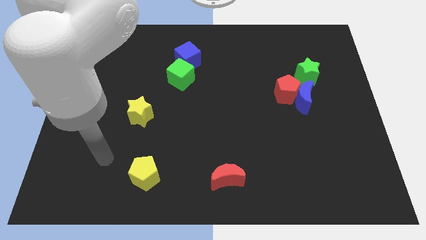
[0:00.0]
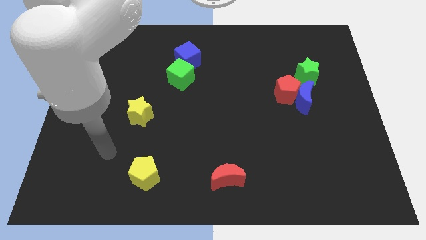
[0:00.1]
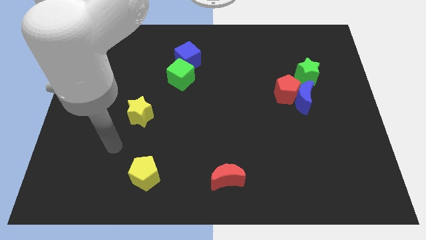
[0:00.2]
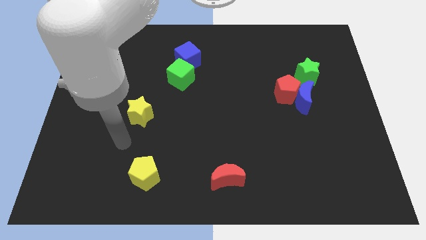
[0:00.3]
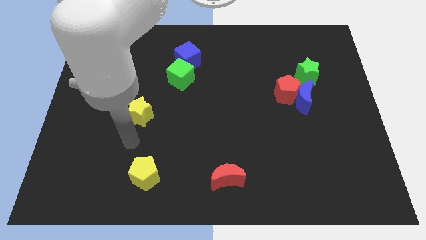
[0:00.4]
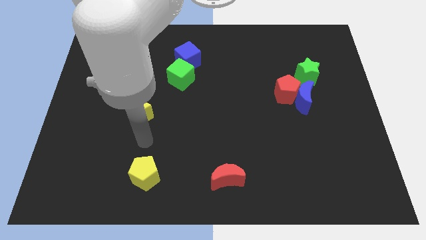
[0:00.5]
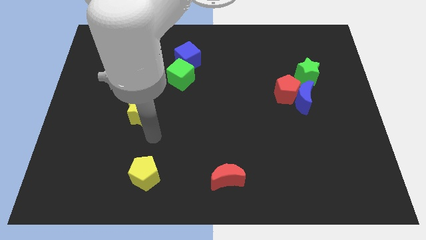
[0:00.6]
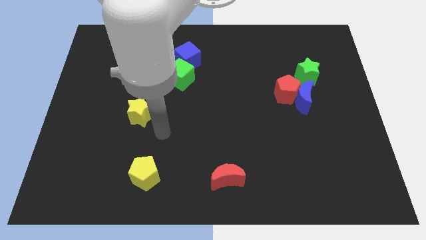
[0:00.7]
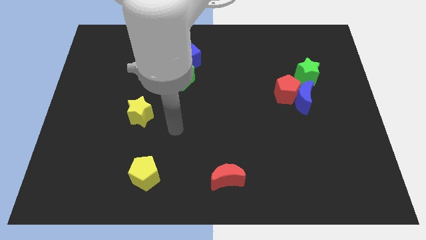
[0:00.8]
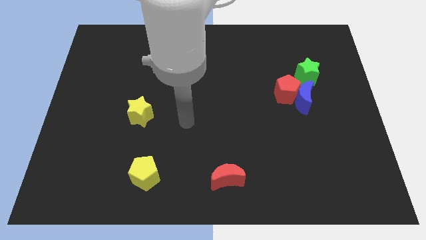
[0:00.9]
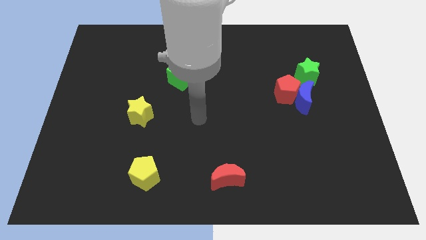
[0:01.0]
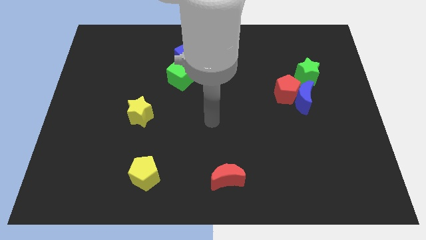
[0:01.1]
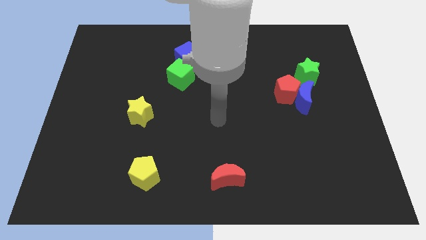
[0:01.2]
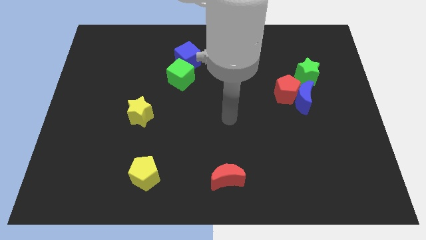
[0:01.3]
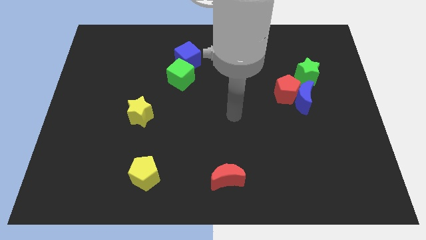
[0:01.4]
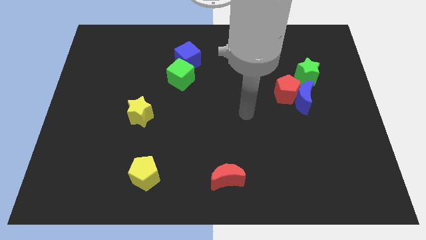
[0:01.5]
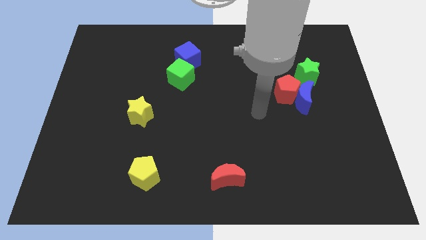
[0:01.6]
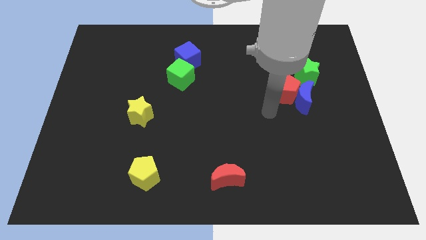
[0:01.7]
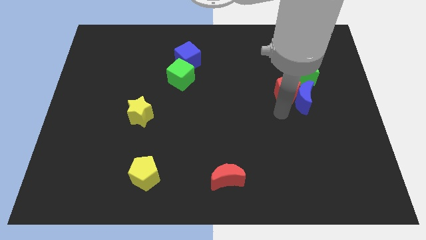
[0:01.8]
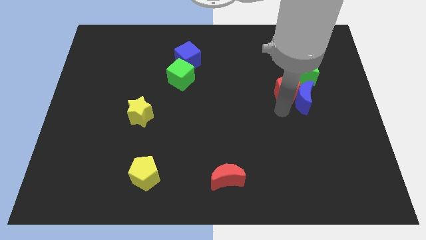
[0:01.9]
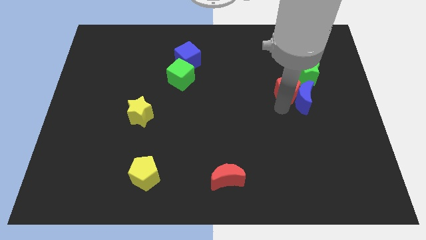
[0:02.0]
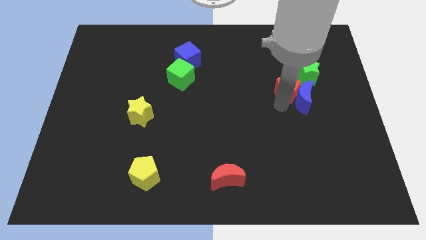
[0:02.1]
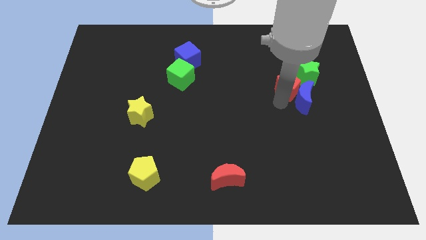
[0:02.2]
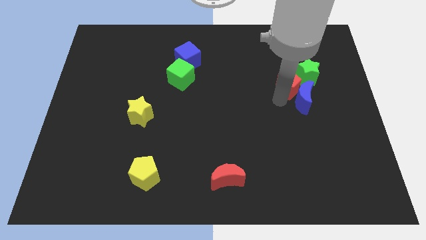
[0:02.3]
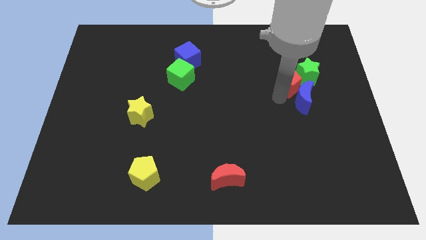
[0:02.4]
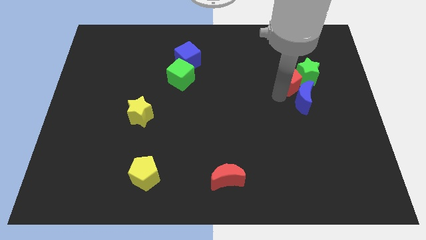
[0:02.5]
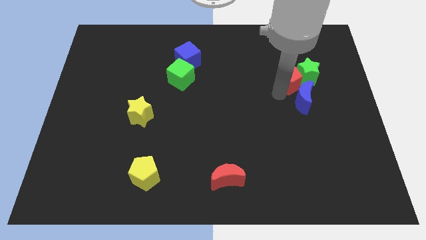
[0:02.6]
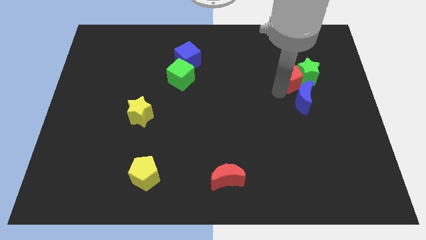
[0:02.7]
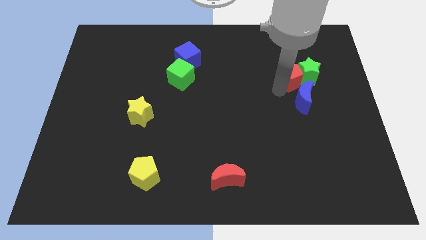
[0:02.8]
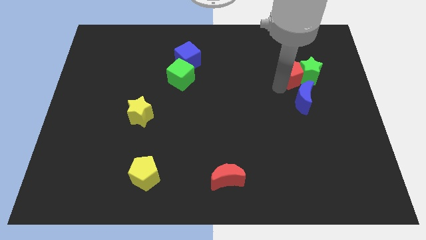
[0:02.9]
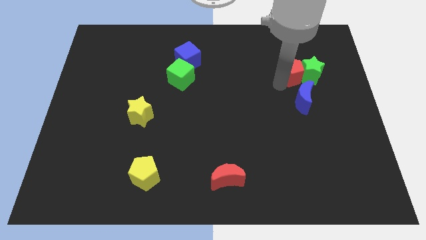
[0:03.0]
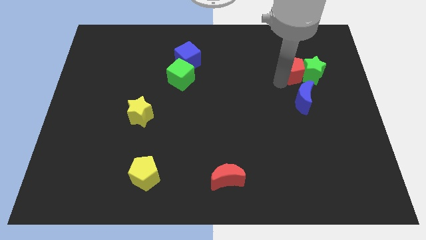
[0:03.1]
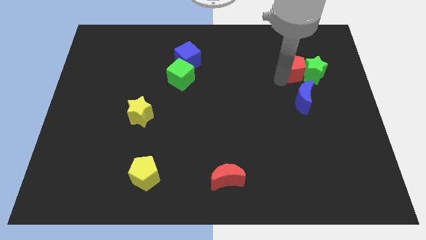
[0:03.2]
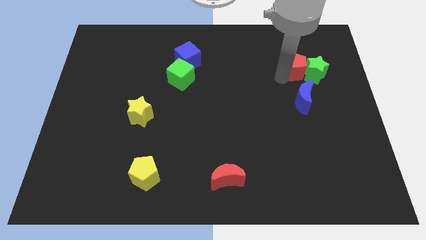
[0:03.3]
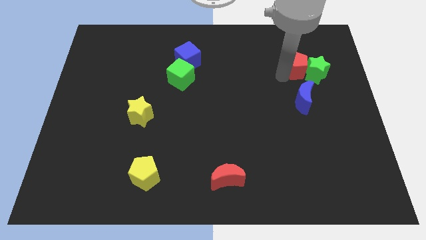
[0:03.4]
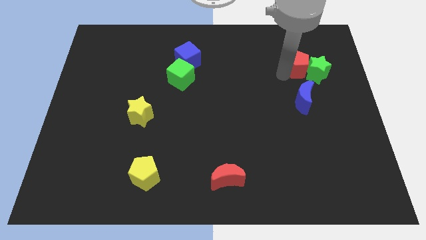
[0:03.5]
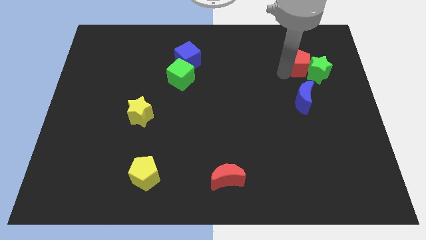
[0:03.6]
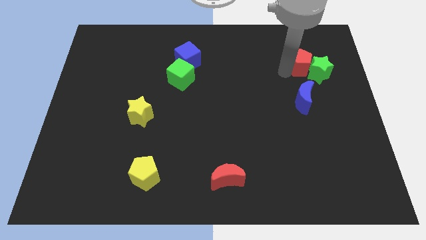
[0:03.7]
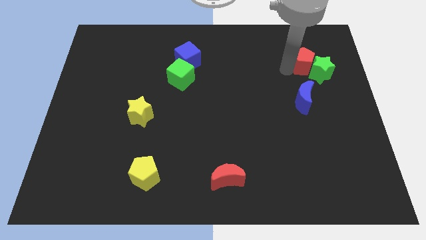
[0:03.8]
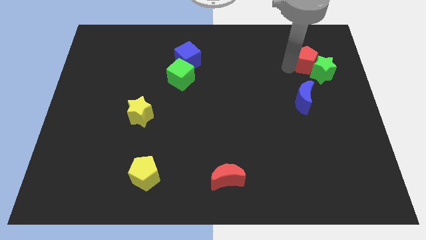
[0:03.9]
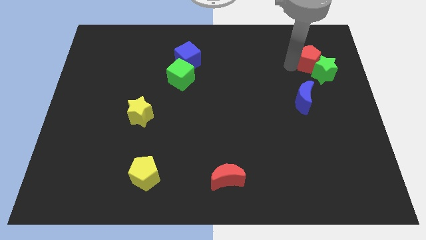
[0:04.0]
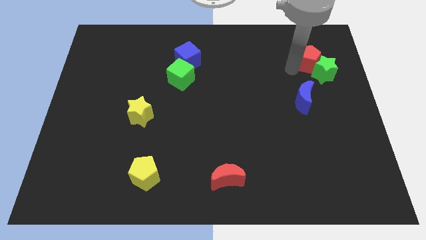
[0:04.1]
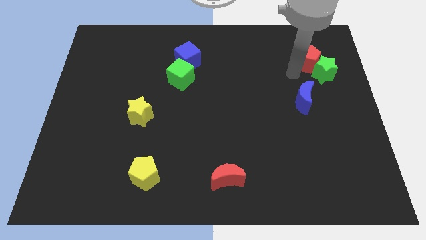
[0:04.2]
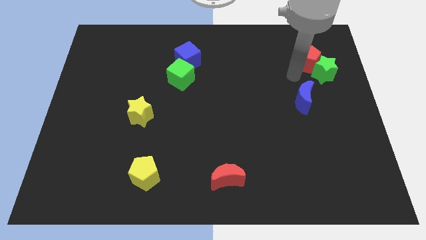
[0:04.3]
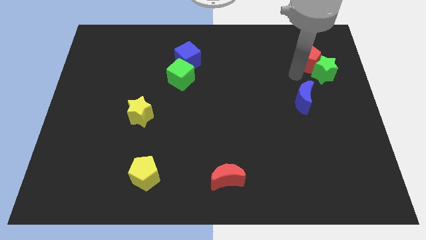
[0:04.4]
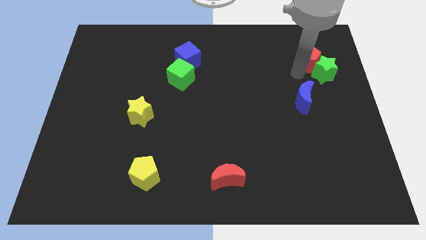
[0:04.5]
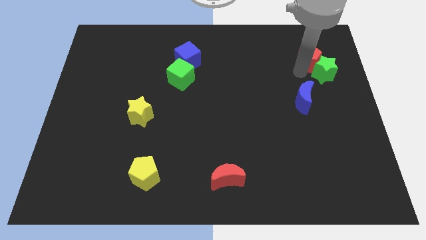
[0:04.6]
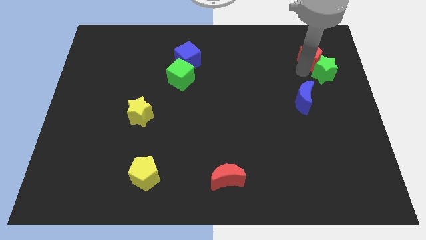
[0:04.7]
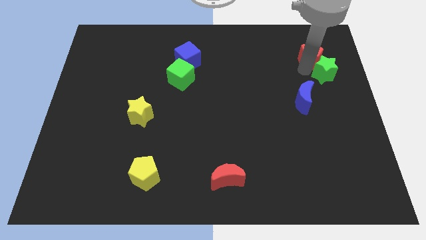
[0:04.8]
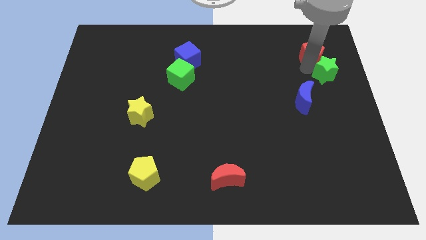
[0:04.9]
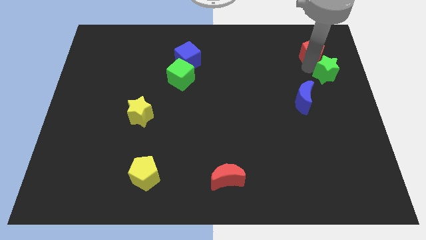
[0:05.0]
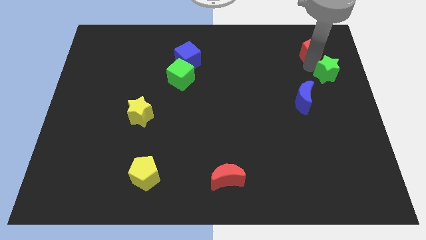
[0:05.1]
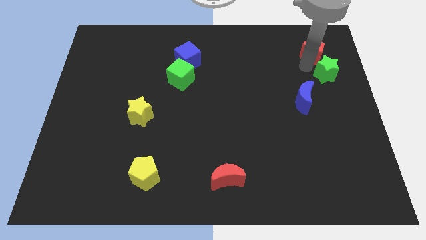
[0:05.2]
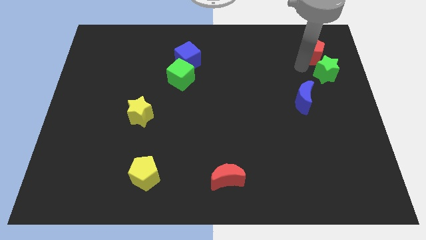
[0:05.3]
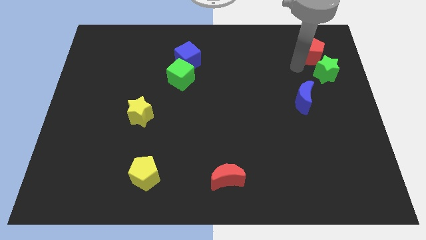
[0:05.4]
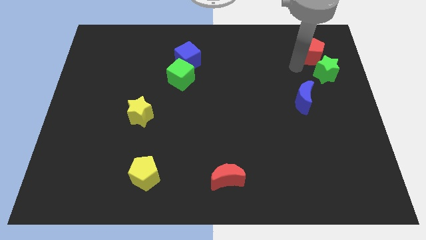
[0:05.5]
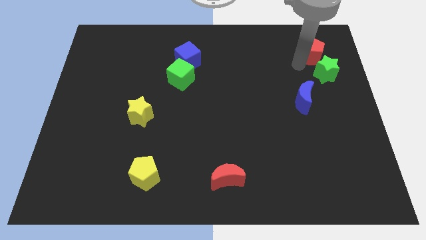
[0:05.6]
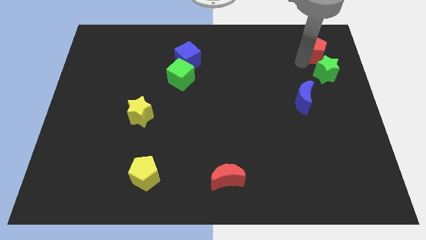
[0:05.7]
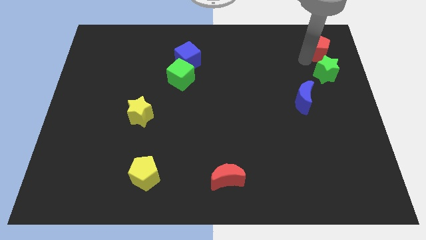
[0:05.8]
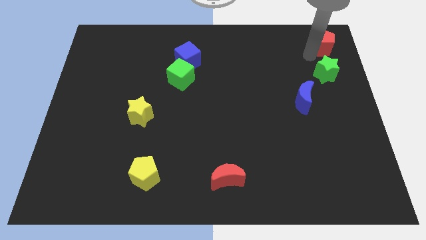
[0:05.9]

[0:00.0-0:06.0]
move the red pentagon to the top right corner

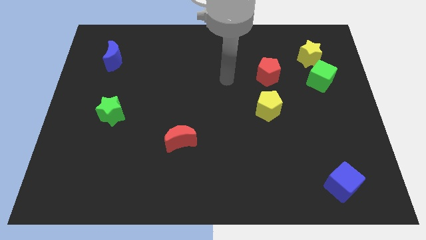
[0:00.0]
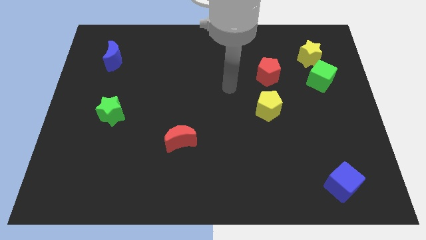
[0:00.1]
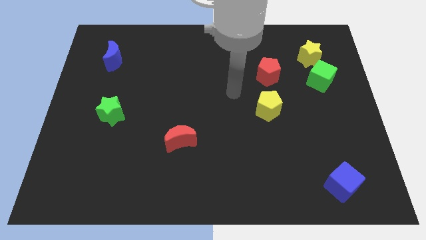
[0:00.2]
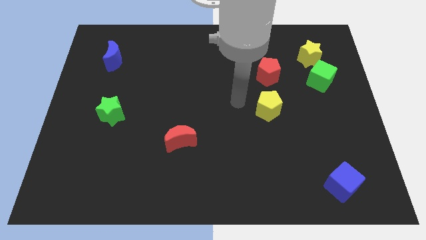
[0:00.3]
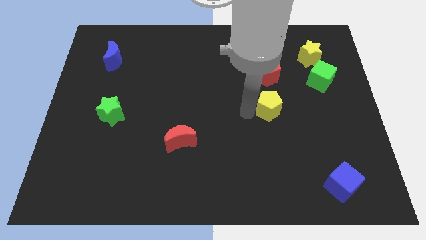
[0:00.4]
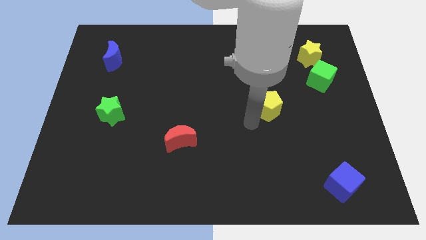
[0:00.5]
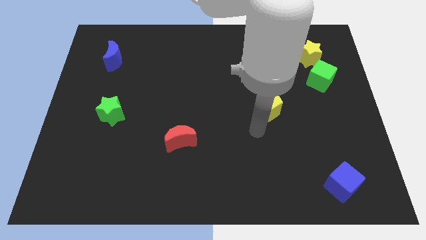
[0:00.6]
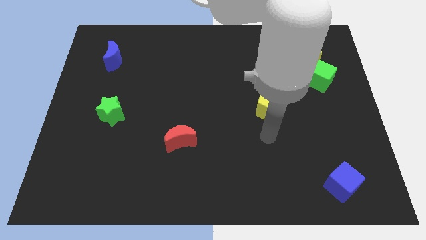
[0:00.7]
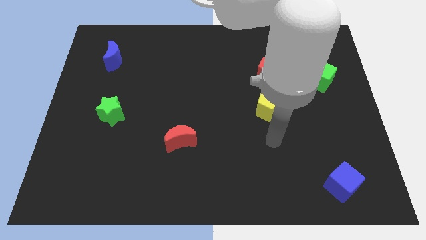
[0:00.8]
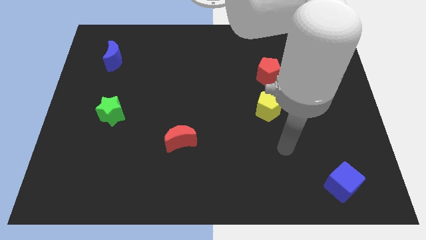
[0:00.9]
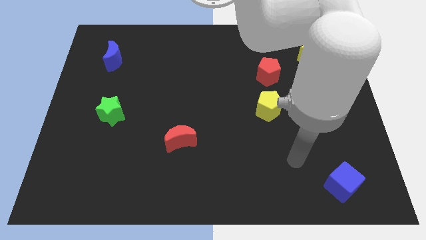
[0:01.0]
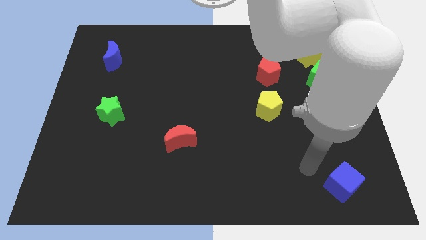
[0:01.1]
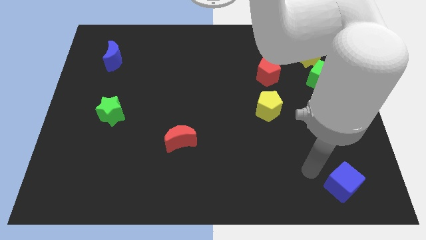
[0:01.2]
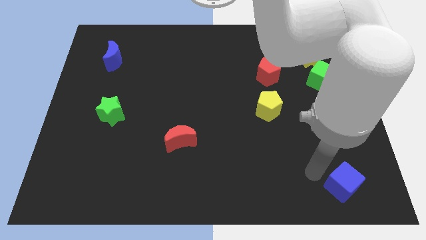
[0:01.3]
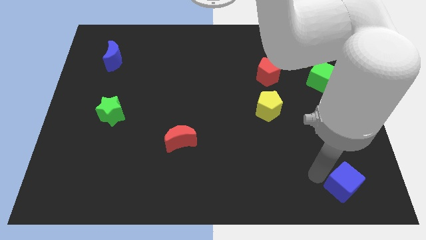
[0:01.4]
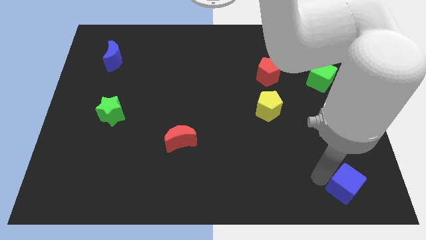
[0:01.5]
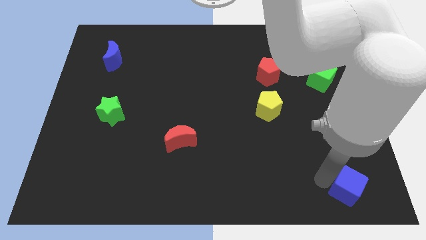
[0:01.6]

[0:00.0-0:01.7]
push the blue cube to the lower right corner
